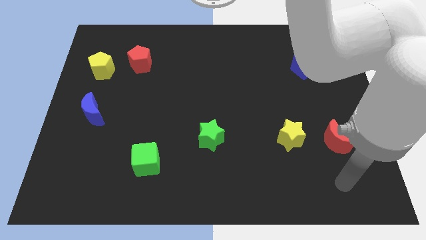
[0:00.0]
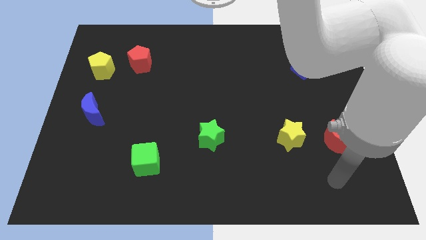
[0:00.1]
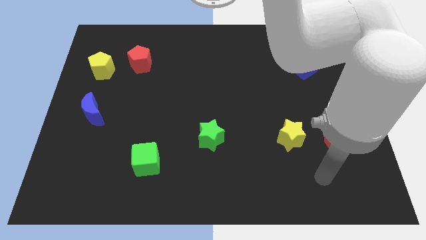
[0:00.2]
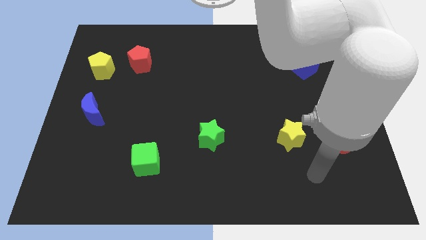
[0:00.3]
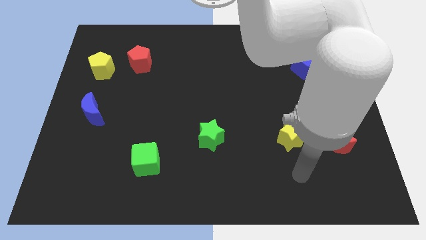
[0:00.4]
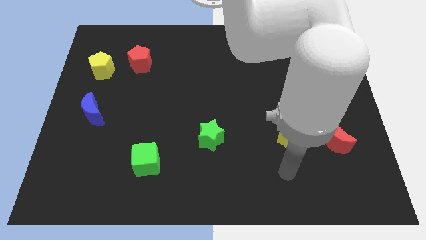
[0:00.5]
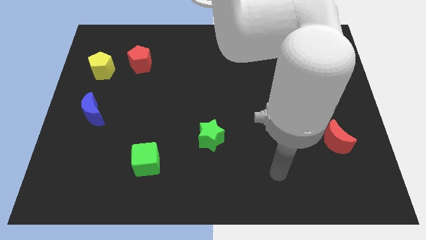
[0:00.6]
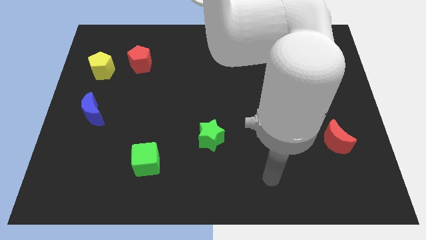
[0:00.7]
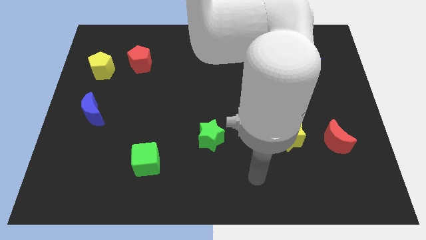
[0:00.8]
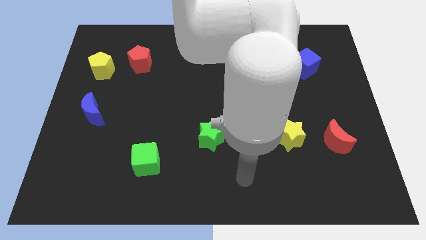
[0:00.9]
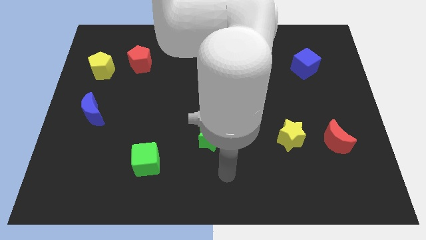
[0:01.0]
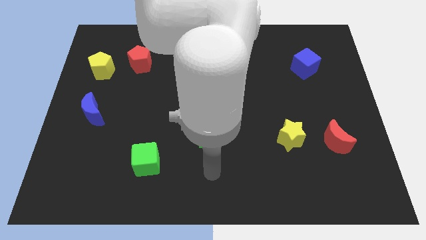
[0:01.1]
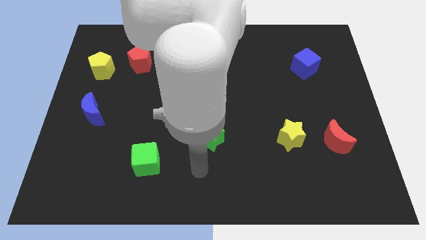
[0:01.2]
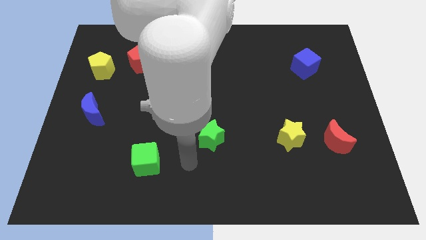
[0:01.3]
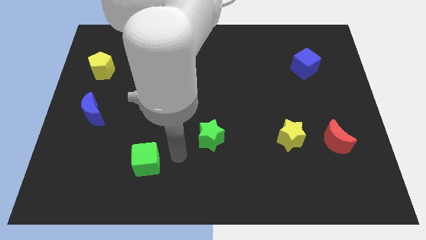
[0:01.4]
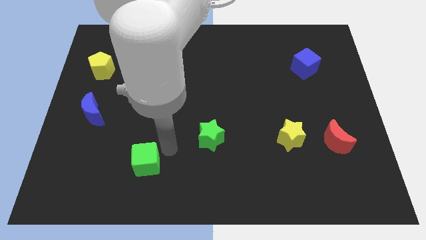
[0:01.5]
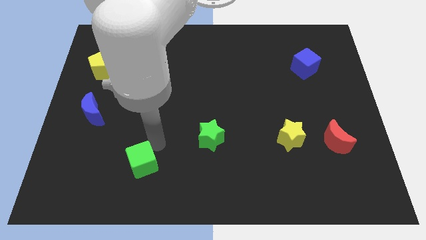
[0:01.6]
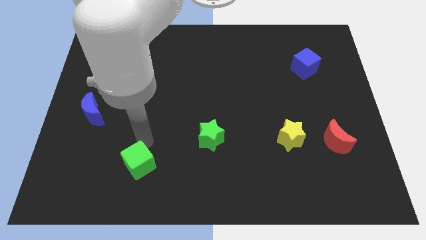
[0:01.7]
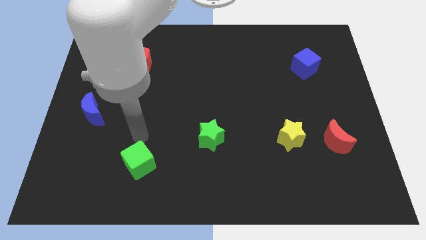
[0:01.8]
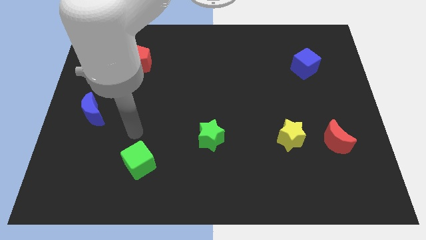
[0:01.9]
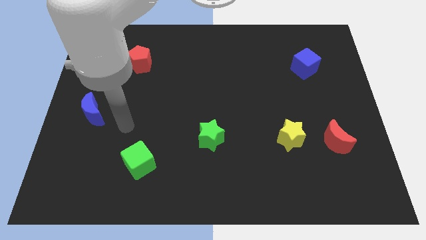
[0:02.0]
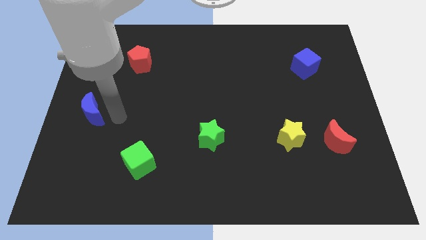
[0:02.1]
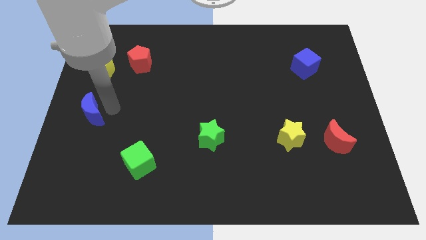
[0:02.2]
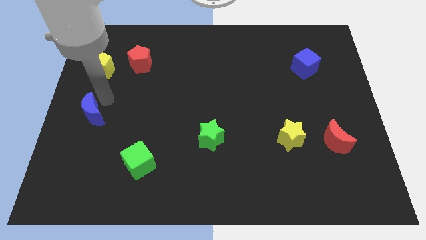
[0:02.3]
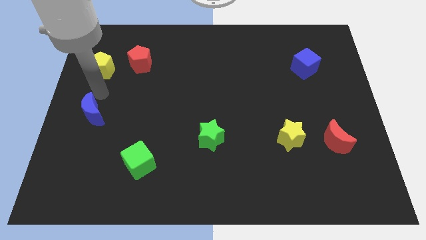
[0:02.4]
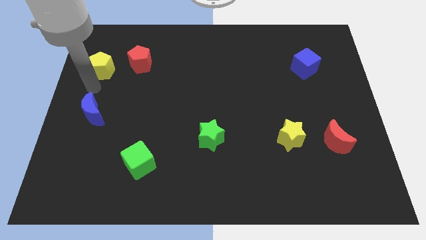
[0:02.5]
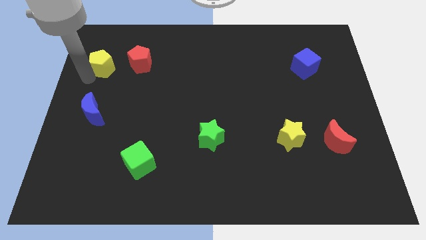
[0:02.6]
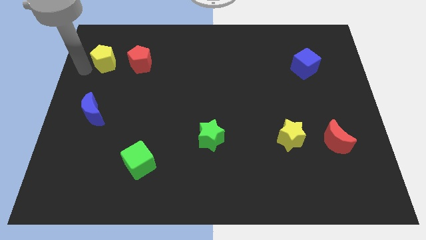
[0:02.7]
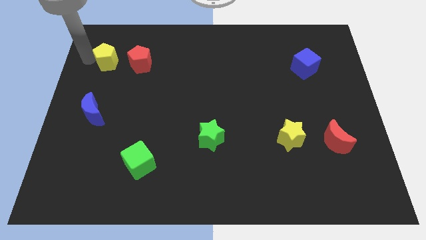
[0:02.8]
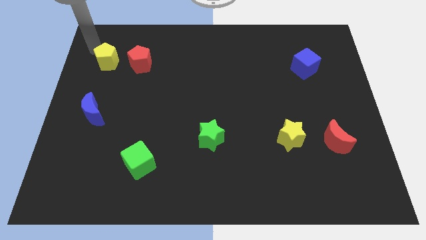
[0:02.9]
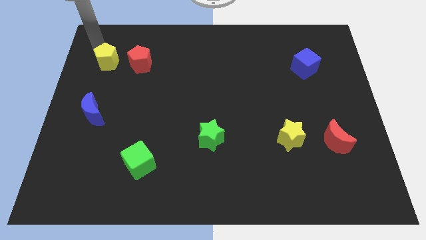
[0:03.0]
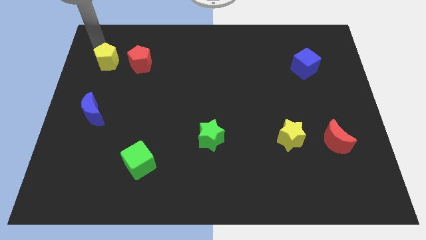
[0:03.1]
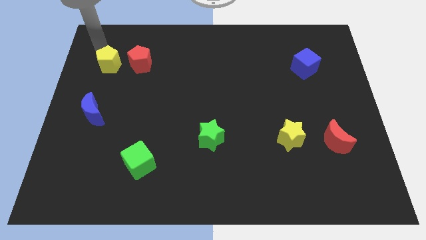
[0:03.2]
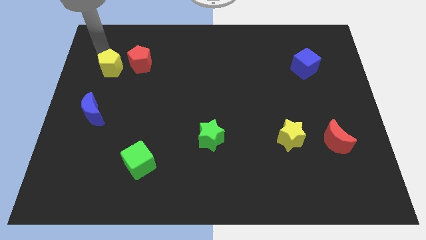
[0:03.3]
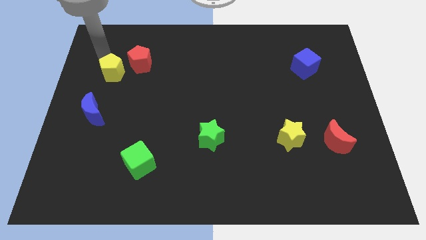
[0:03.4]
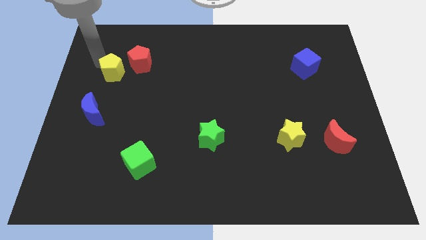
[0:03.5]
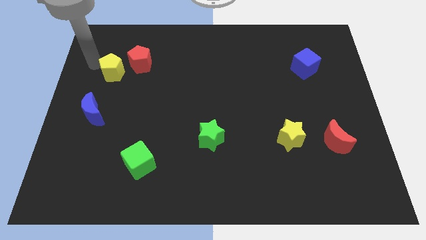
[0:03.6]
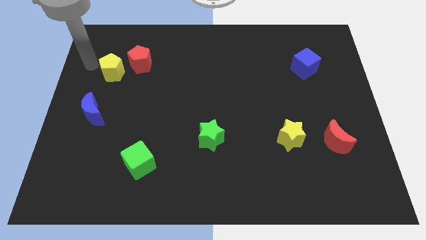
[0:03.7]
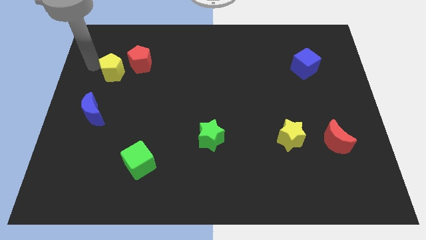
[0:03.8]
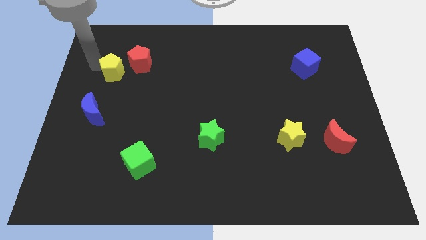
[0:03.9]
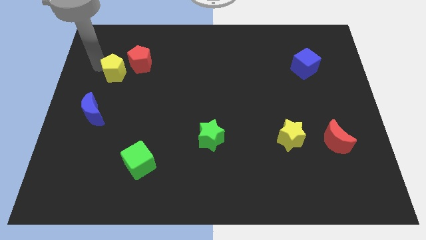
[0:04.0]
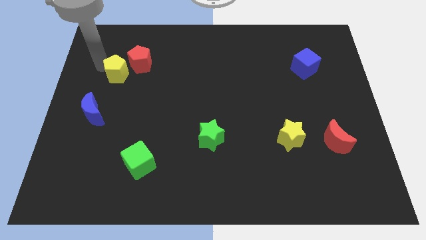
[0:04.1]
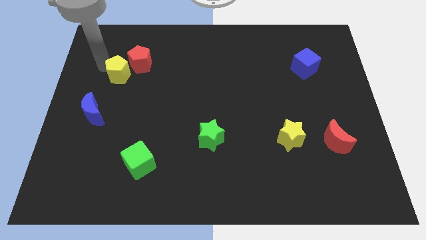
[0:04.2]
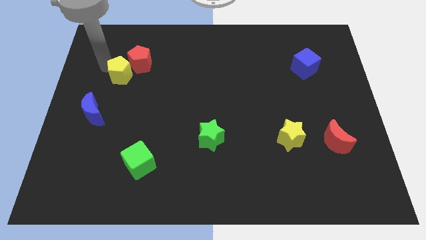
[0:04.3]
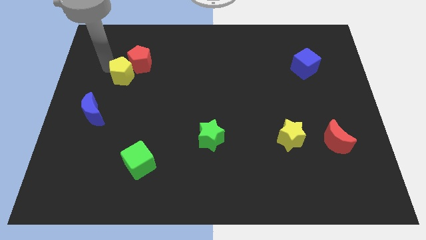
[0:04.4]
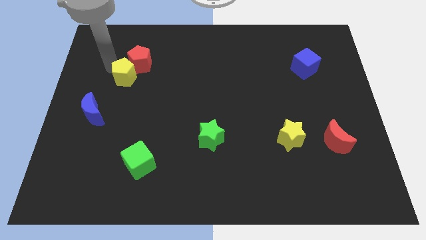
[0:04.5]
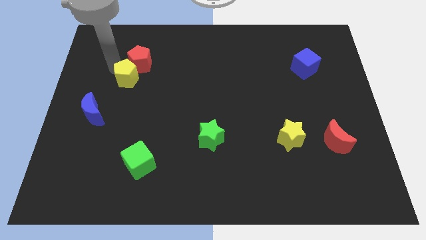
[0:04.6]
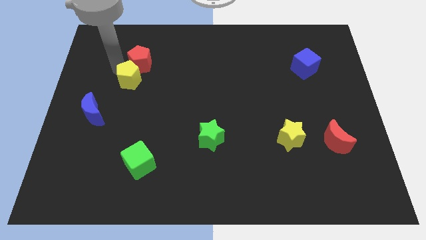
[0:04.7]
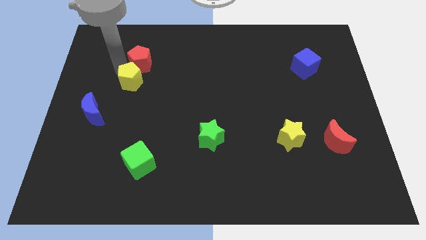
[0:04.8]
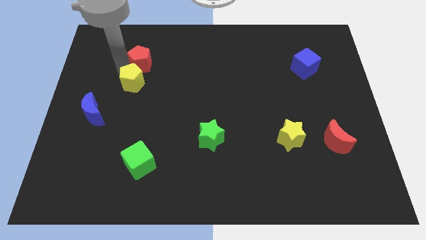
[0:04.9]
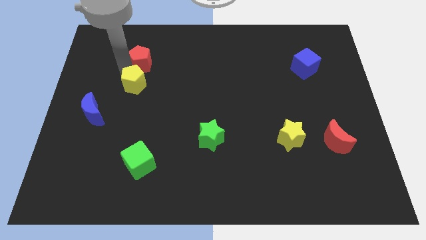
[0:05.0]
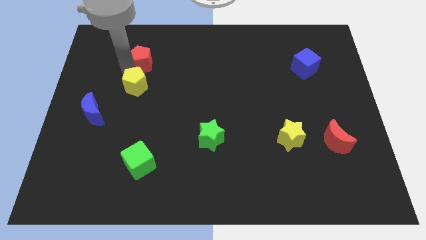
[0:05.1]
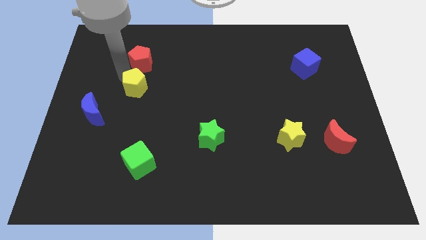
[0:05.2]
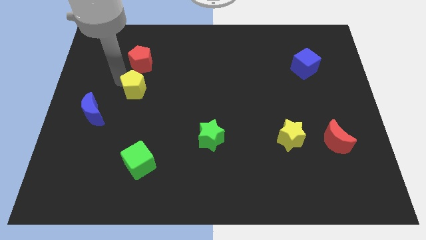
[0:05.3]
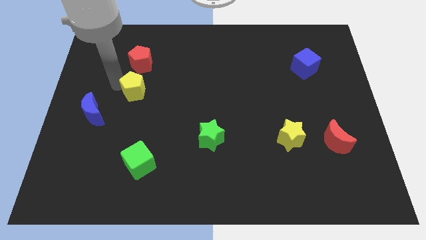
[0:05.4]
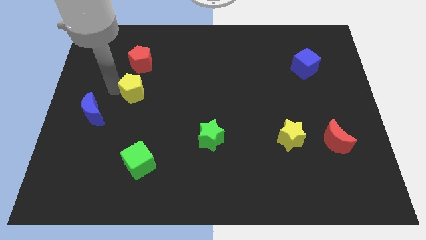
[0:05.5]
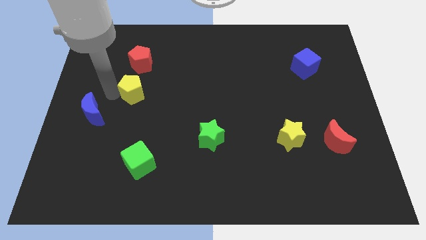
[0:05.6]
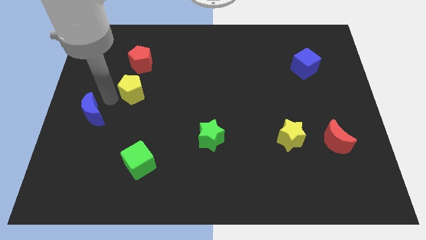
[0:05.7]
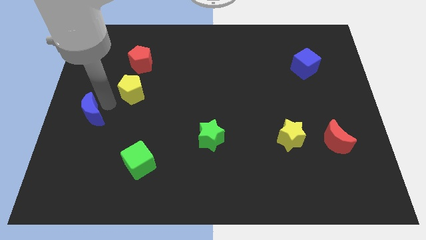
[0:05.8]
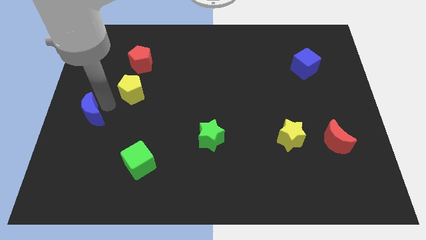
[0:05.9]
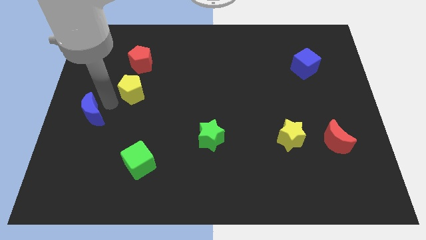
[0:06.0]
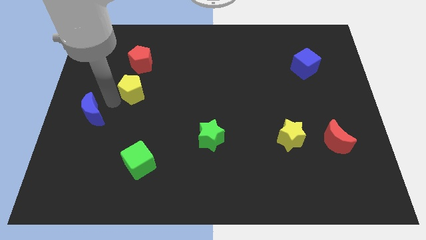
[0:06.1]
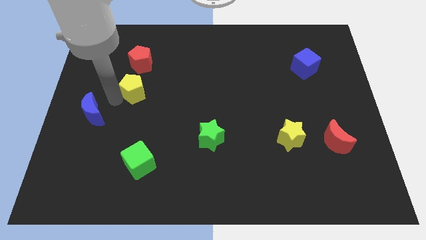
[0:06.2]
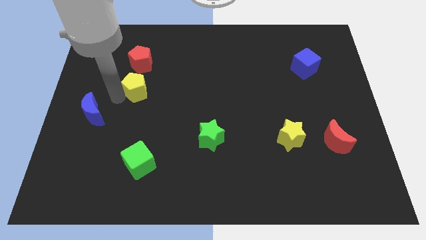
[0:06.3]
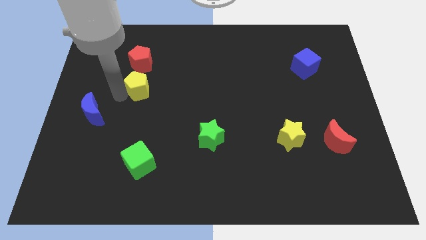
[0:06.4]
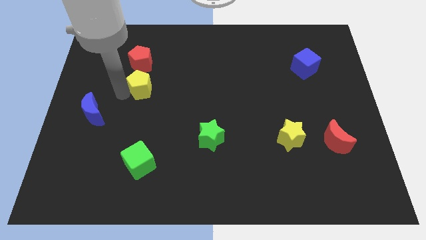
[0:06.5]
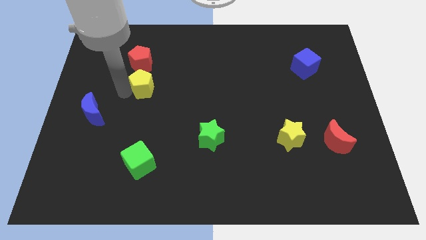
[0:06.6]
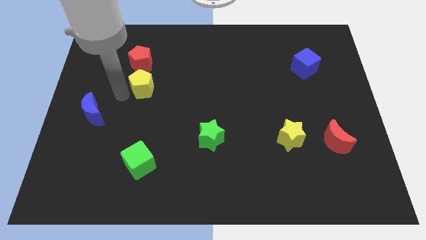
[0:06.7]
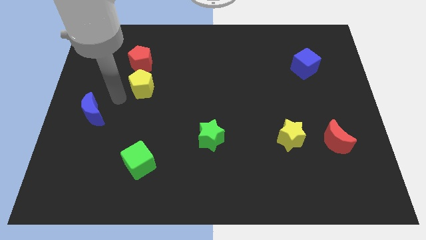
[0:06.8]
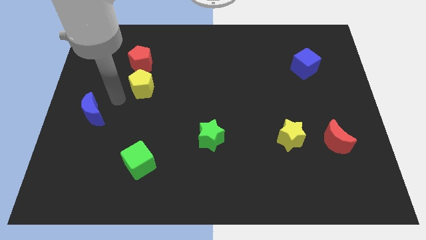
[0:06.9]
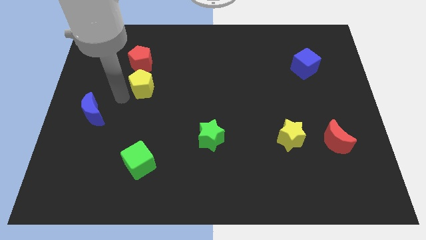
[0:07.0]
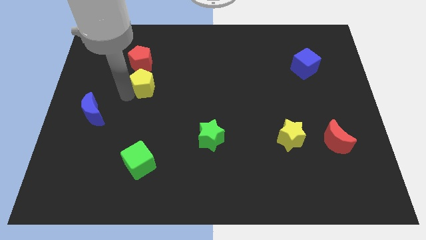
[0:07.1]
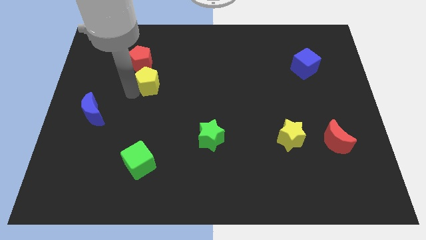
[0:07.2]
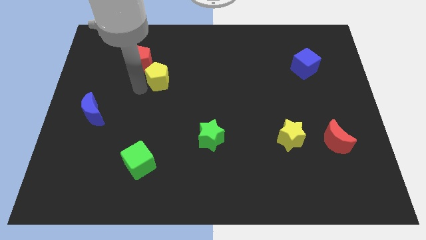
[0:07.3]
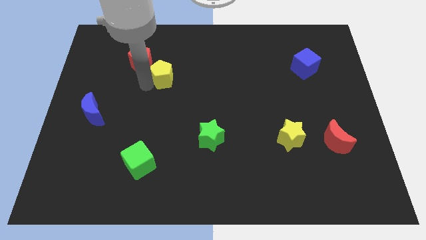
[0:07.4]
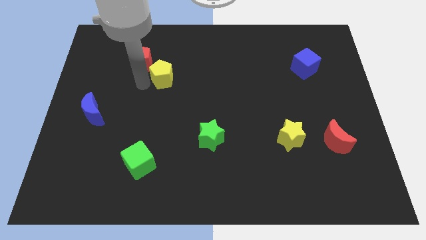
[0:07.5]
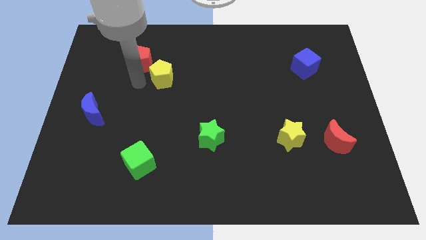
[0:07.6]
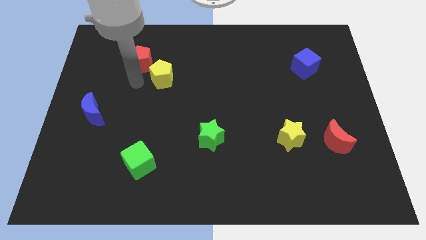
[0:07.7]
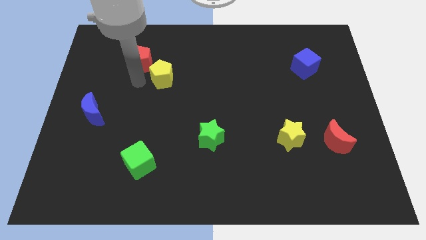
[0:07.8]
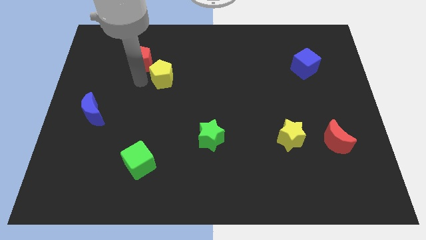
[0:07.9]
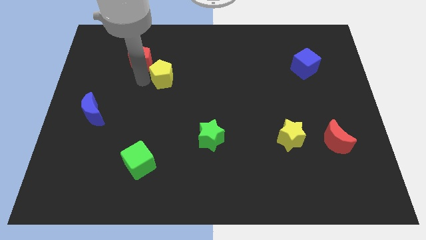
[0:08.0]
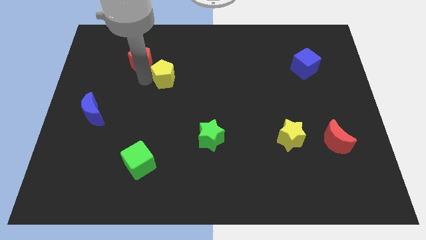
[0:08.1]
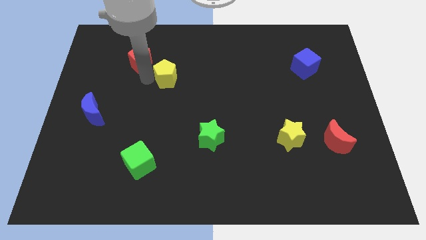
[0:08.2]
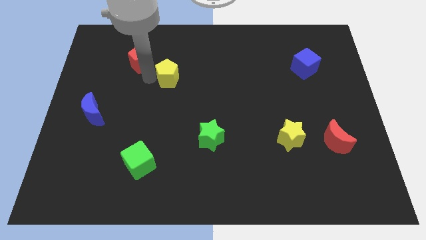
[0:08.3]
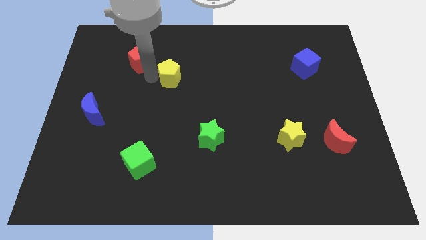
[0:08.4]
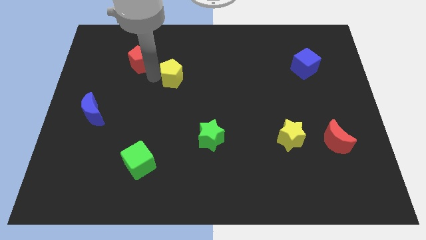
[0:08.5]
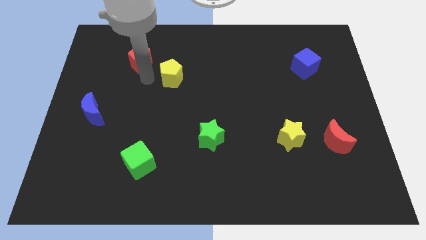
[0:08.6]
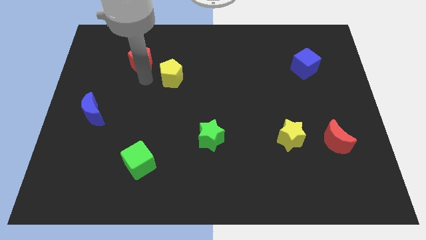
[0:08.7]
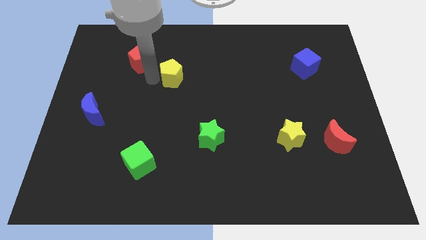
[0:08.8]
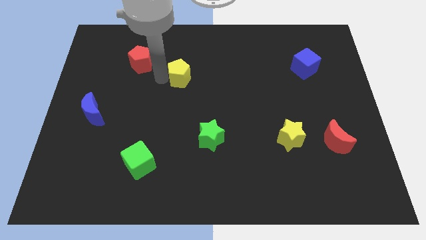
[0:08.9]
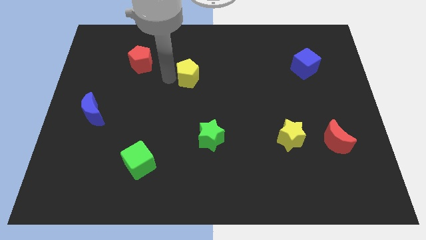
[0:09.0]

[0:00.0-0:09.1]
push the yellow pentagon right
